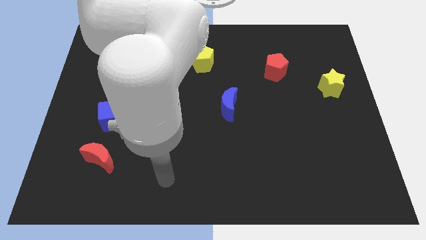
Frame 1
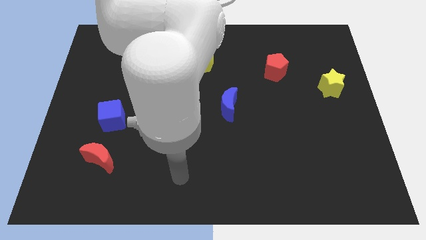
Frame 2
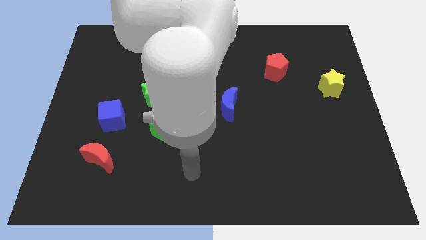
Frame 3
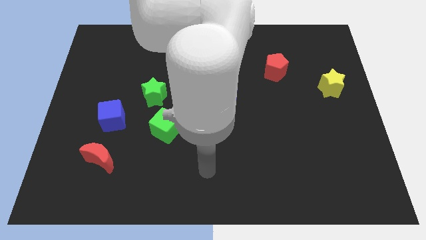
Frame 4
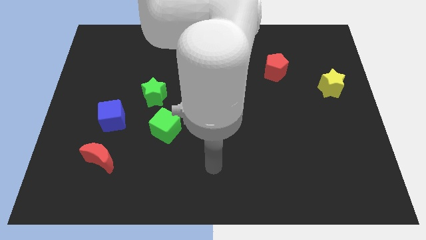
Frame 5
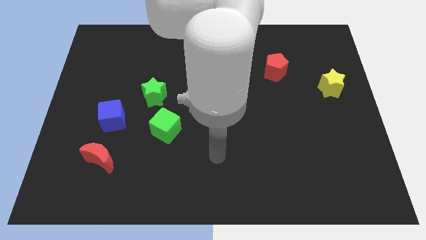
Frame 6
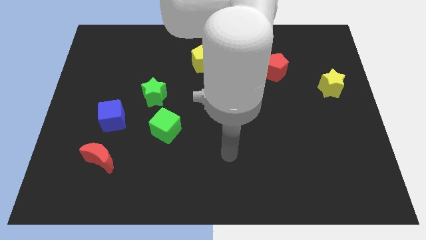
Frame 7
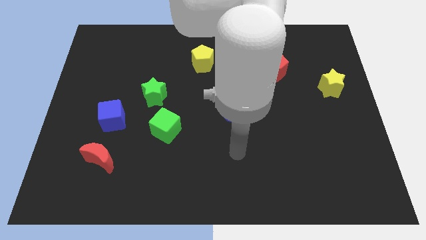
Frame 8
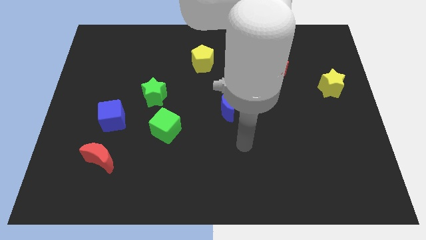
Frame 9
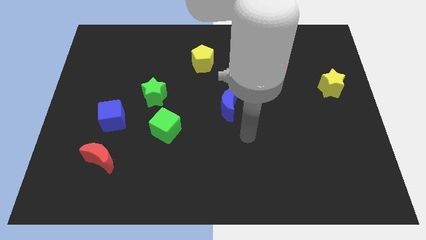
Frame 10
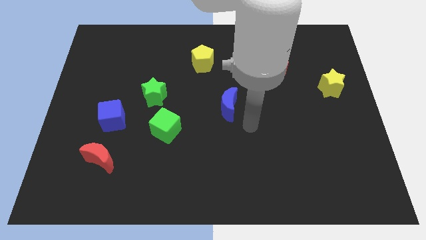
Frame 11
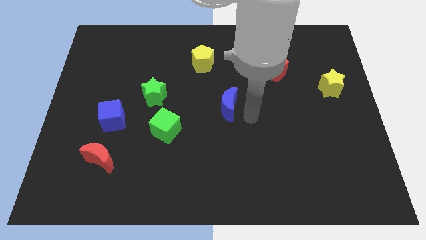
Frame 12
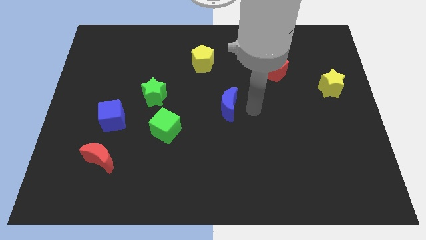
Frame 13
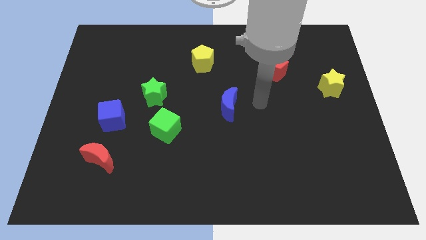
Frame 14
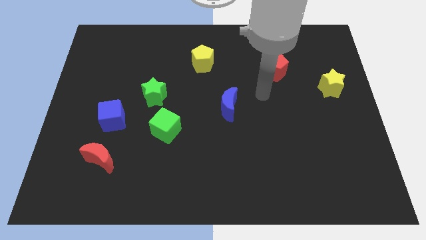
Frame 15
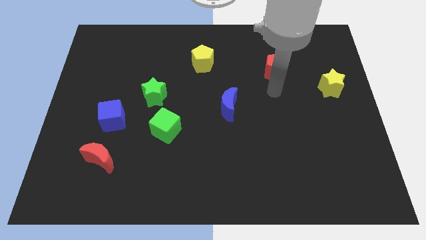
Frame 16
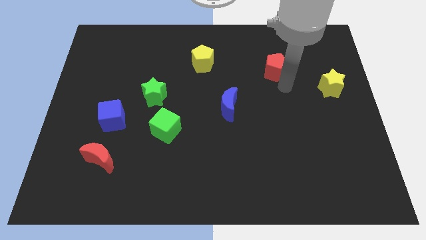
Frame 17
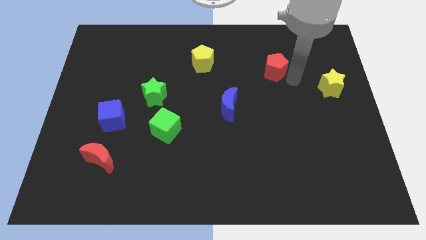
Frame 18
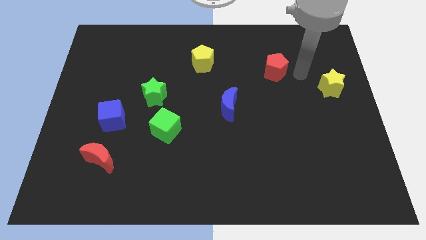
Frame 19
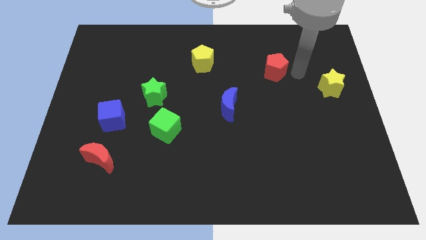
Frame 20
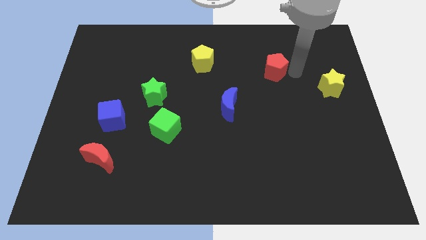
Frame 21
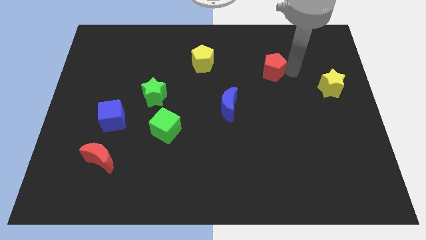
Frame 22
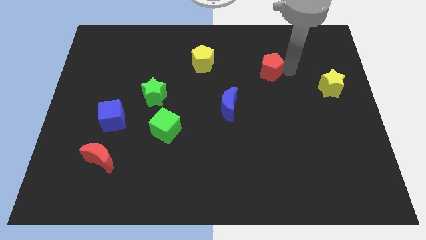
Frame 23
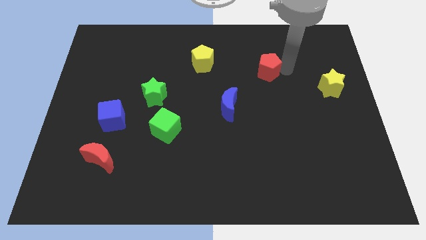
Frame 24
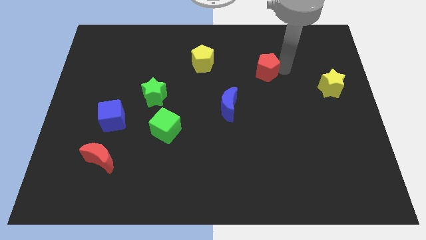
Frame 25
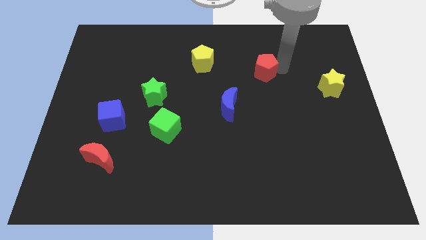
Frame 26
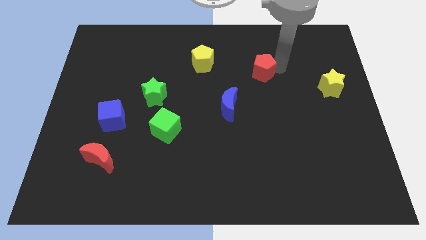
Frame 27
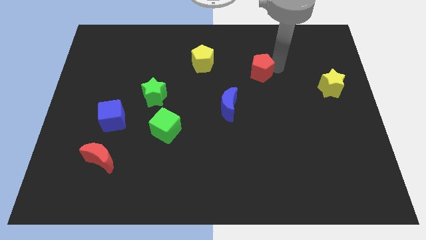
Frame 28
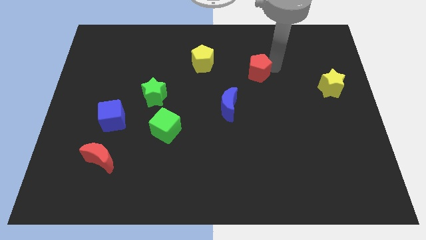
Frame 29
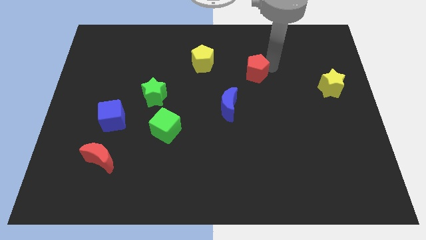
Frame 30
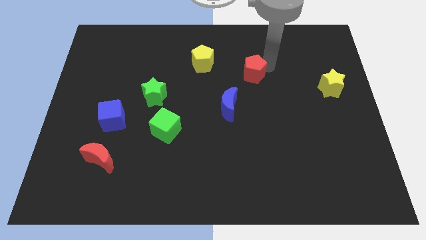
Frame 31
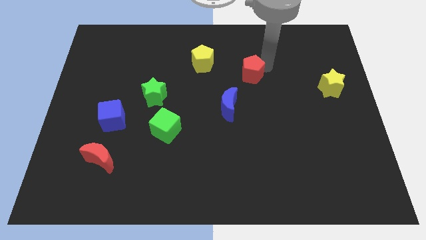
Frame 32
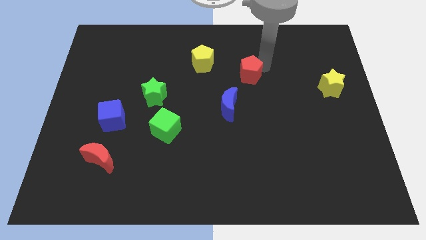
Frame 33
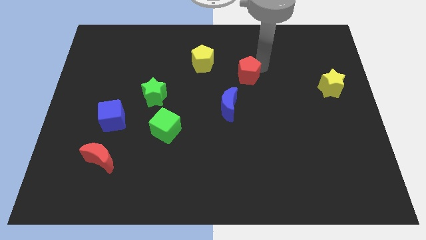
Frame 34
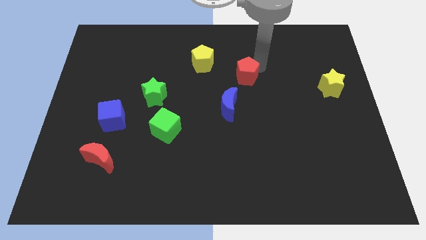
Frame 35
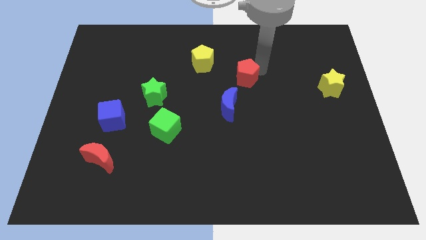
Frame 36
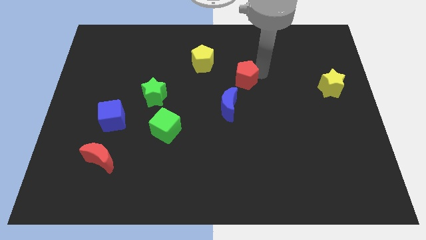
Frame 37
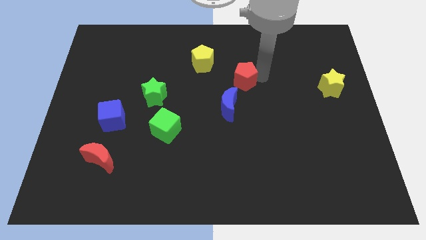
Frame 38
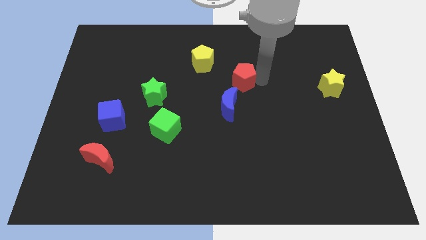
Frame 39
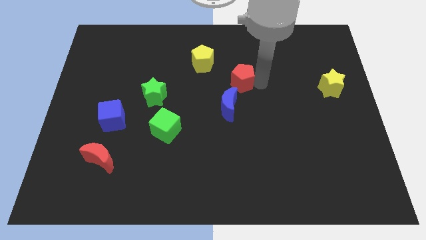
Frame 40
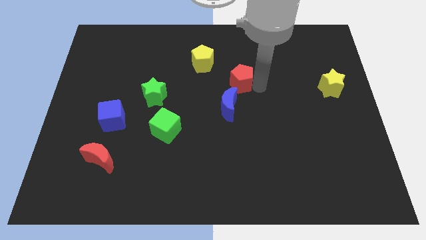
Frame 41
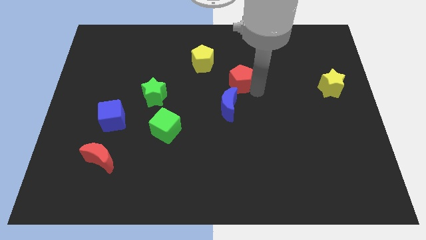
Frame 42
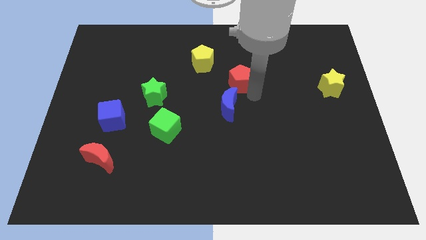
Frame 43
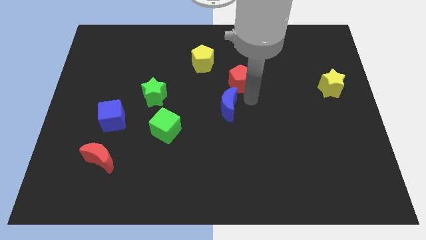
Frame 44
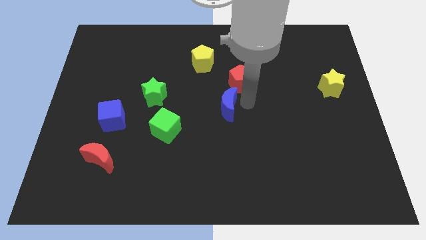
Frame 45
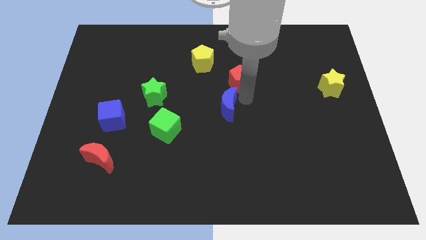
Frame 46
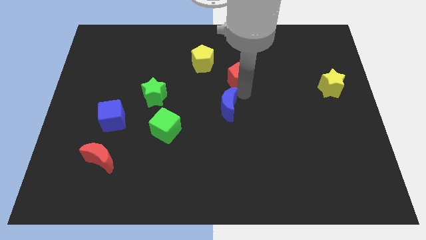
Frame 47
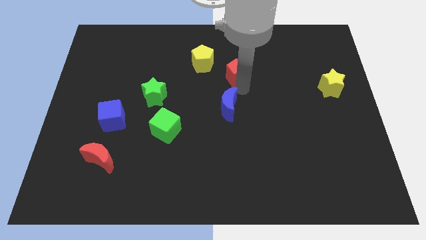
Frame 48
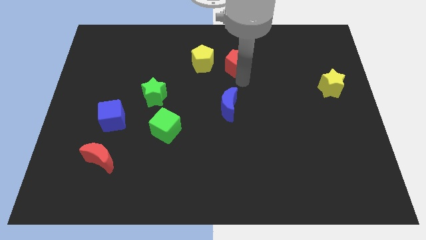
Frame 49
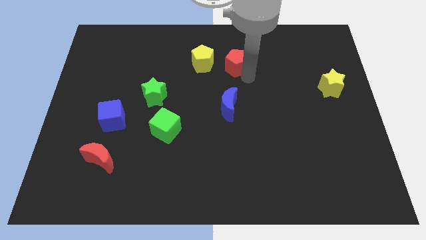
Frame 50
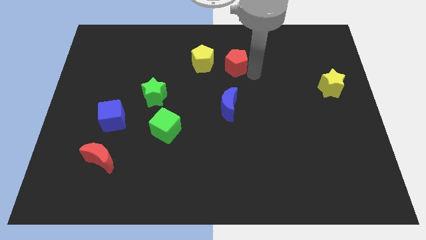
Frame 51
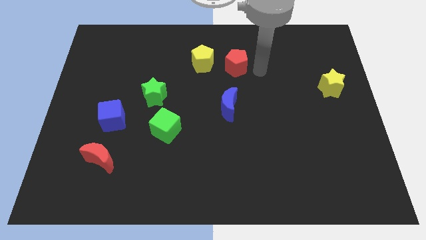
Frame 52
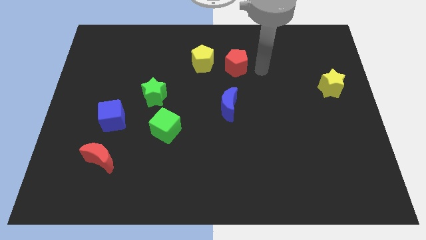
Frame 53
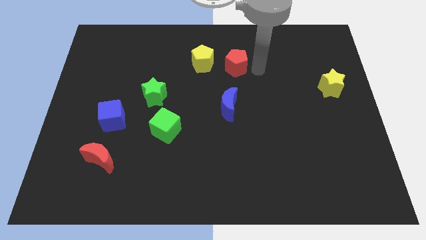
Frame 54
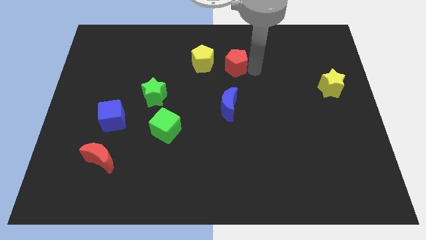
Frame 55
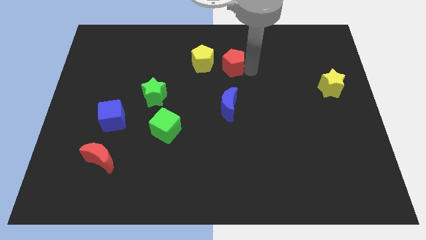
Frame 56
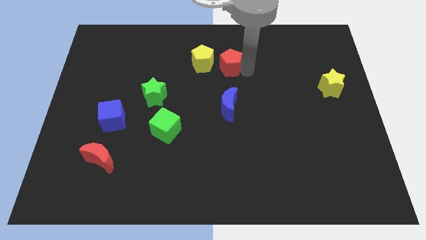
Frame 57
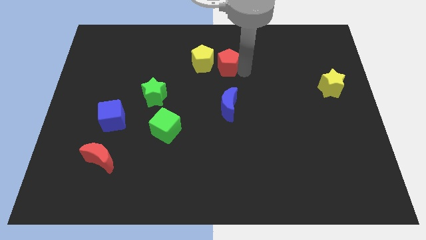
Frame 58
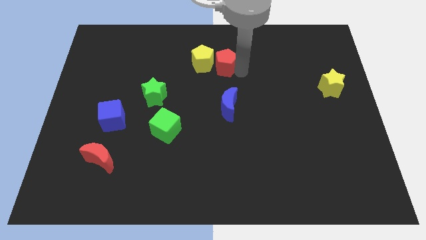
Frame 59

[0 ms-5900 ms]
put the red pentagon towards the yellow pentagon
